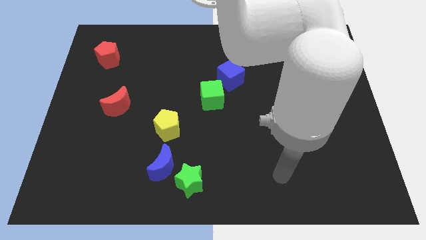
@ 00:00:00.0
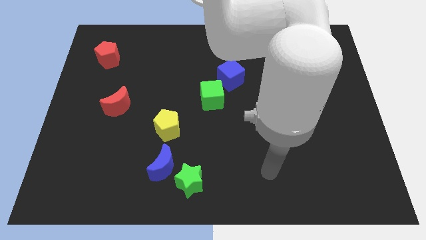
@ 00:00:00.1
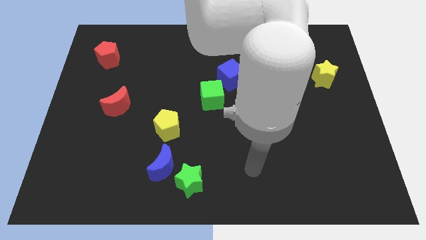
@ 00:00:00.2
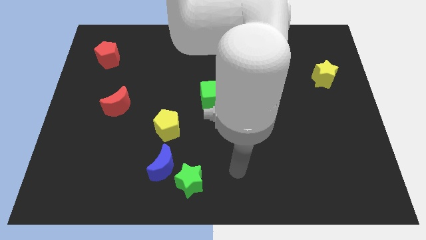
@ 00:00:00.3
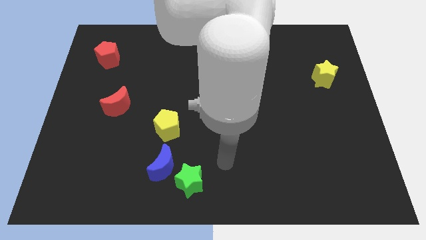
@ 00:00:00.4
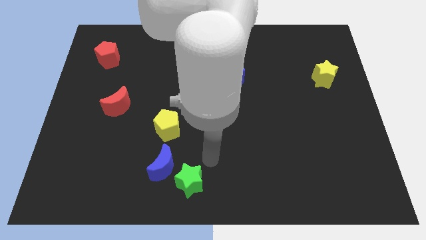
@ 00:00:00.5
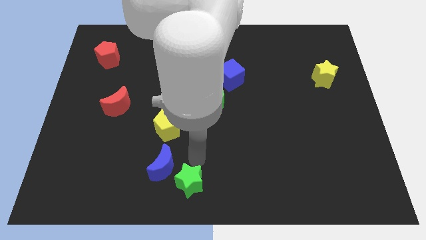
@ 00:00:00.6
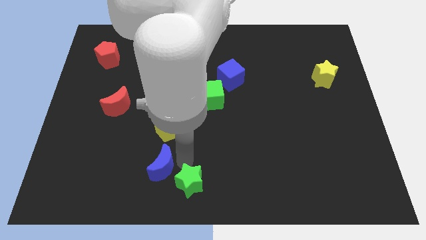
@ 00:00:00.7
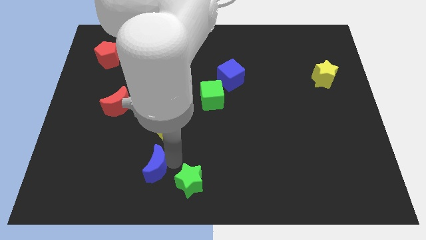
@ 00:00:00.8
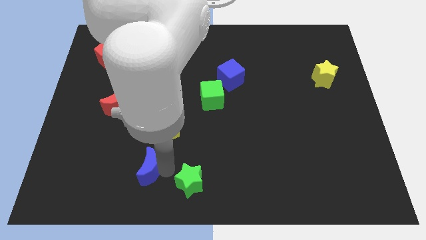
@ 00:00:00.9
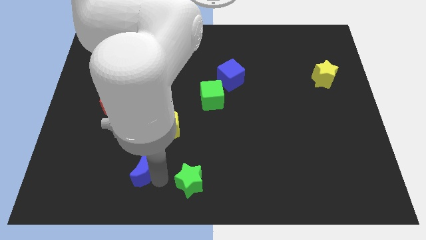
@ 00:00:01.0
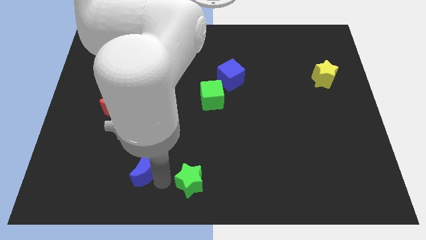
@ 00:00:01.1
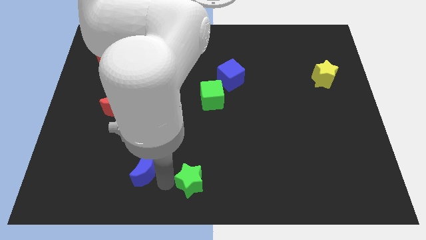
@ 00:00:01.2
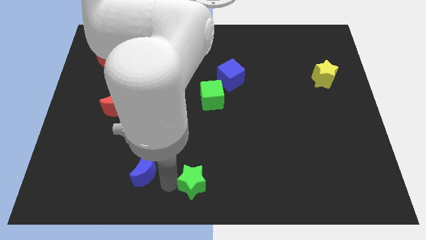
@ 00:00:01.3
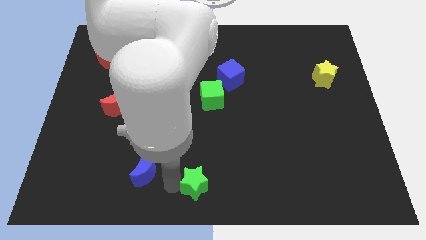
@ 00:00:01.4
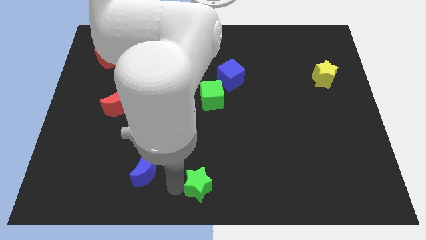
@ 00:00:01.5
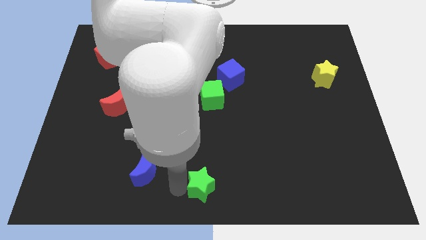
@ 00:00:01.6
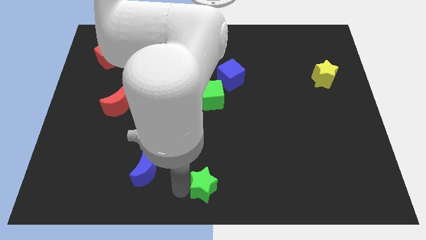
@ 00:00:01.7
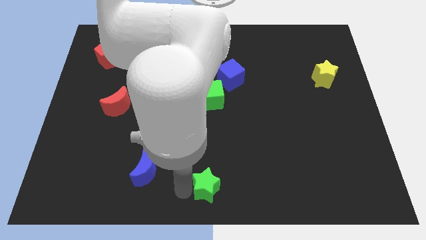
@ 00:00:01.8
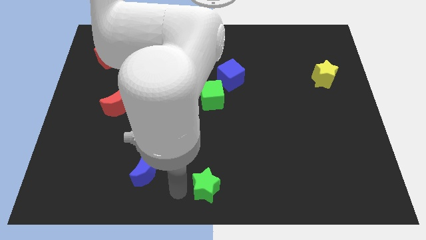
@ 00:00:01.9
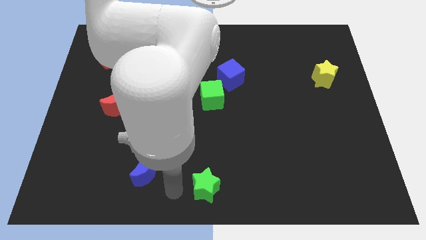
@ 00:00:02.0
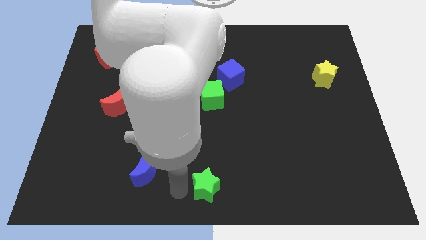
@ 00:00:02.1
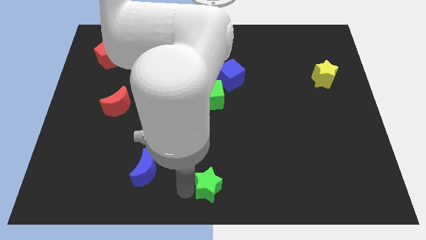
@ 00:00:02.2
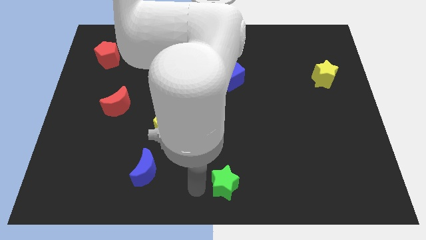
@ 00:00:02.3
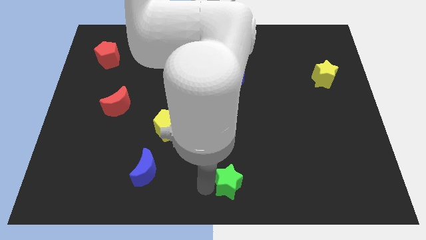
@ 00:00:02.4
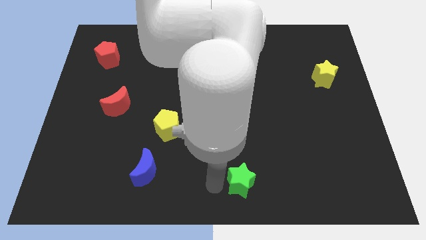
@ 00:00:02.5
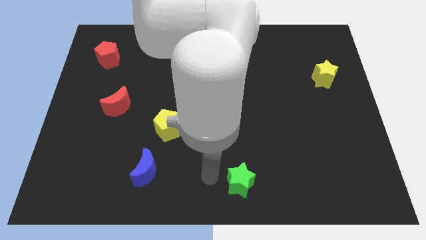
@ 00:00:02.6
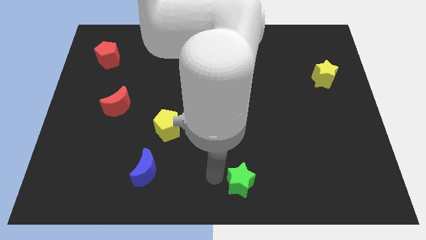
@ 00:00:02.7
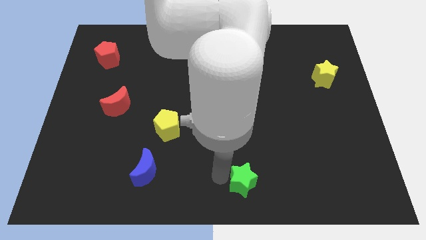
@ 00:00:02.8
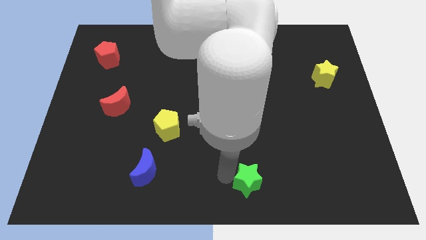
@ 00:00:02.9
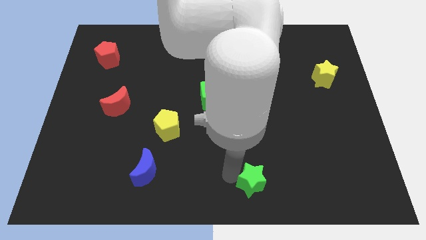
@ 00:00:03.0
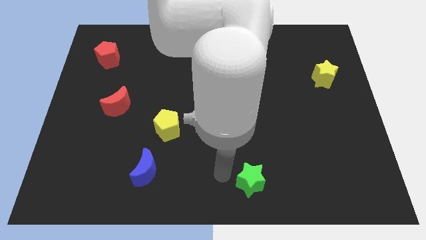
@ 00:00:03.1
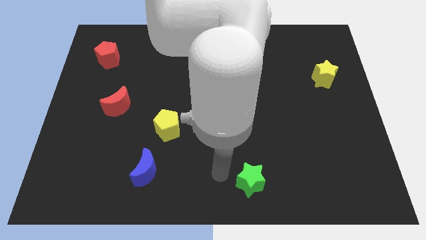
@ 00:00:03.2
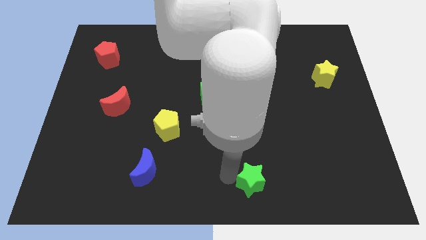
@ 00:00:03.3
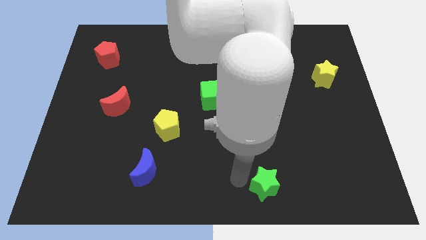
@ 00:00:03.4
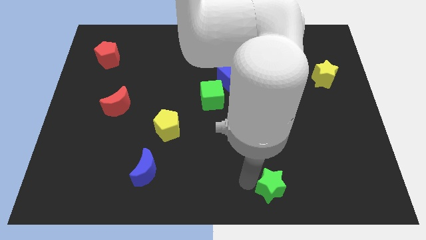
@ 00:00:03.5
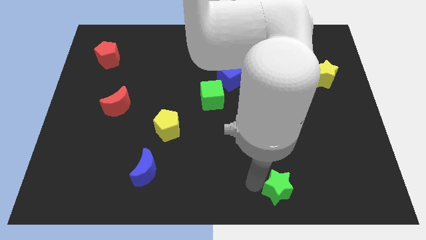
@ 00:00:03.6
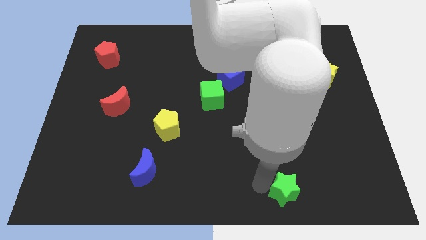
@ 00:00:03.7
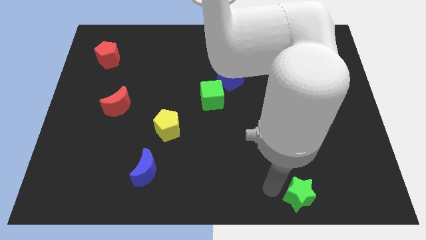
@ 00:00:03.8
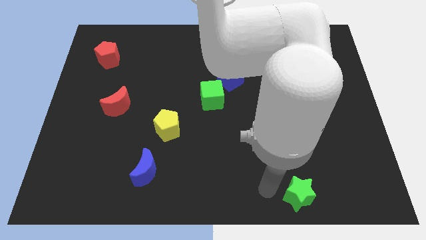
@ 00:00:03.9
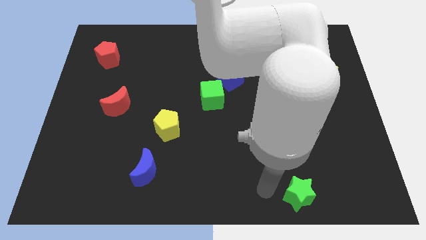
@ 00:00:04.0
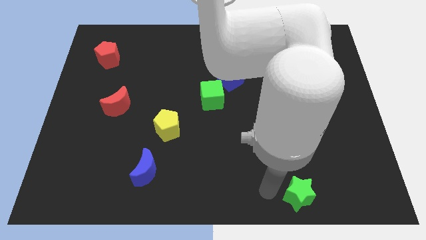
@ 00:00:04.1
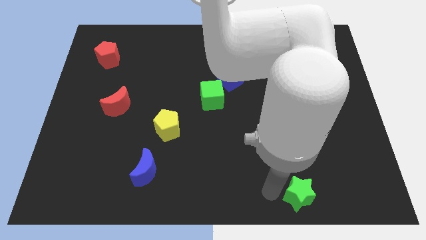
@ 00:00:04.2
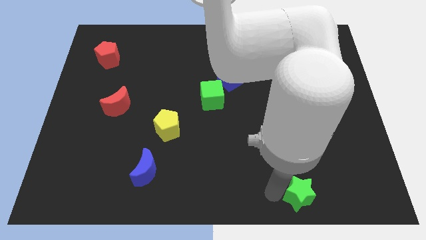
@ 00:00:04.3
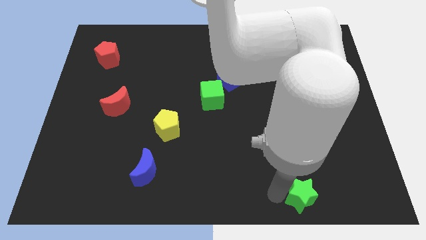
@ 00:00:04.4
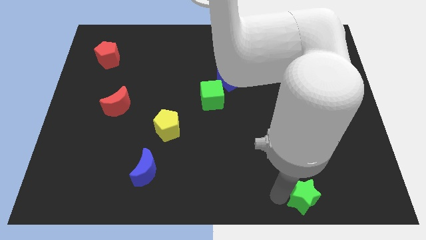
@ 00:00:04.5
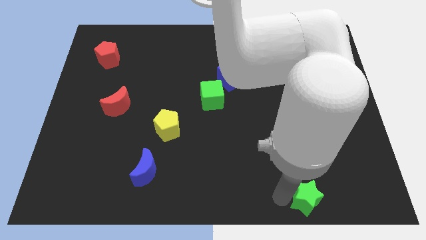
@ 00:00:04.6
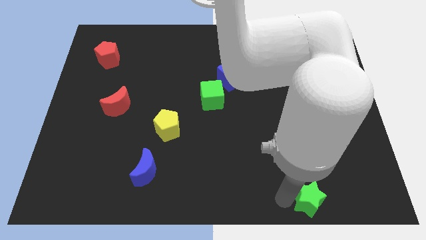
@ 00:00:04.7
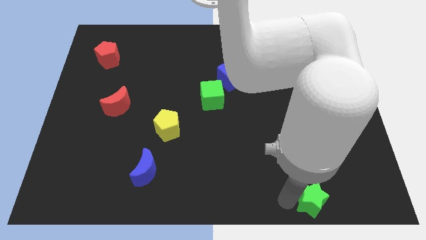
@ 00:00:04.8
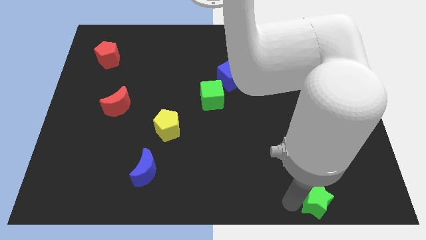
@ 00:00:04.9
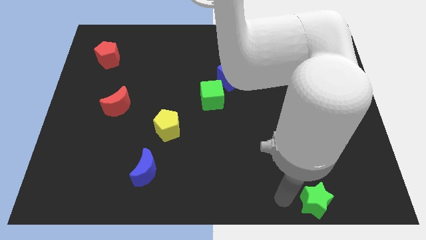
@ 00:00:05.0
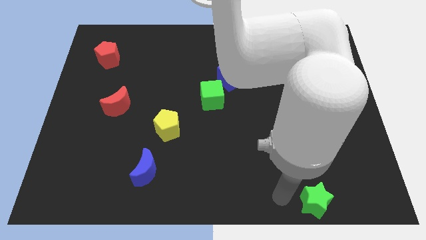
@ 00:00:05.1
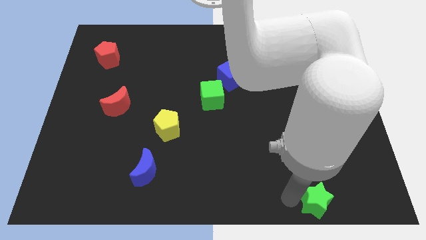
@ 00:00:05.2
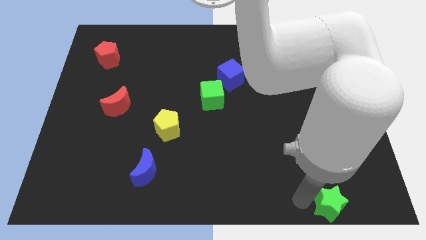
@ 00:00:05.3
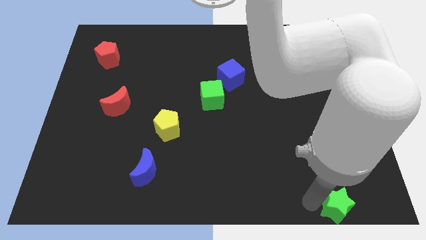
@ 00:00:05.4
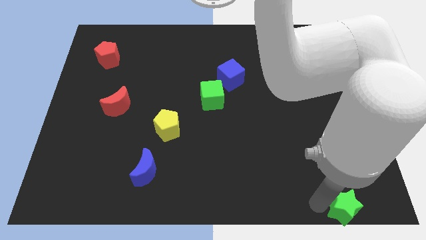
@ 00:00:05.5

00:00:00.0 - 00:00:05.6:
move the green star to the lower right corner

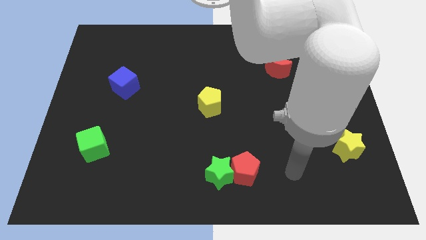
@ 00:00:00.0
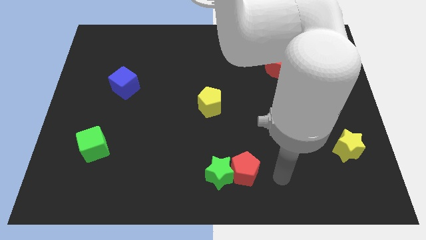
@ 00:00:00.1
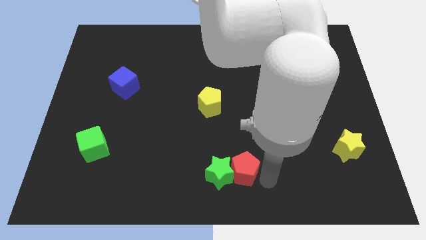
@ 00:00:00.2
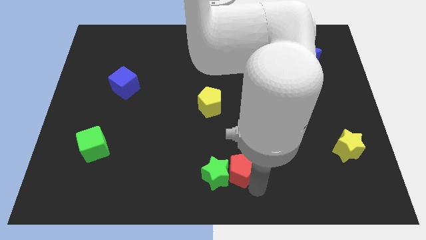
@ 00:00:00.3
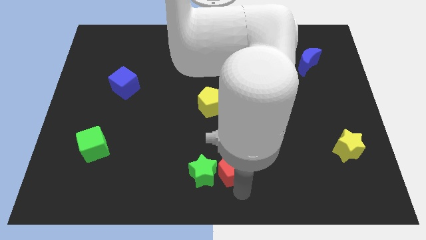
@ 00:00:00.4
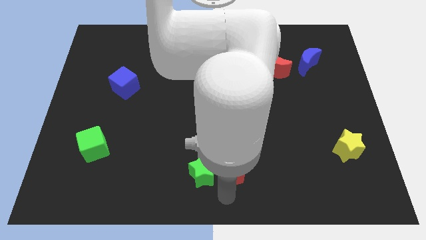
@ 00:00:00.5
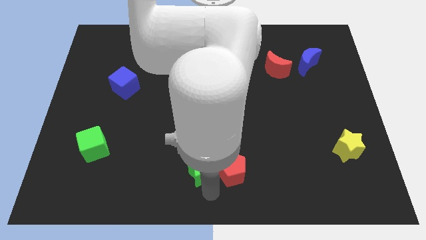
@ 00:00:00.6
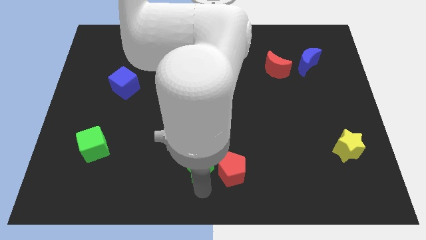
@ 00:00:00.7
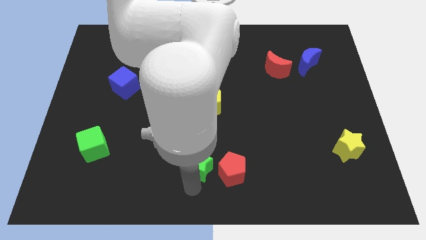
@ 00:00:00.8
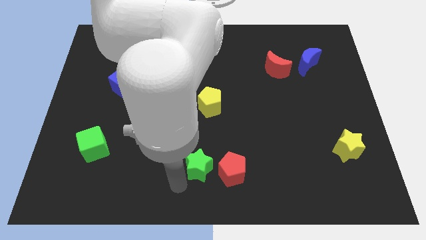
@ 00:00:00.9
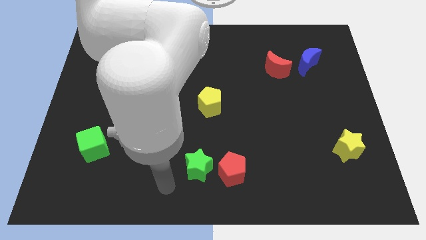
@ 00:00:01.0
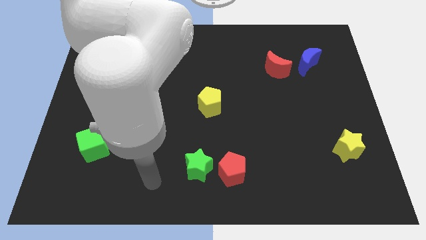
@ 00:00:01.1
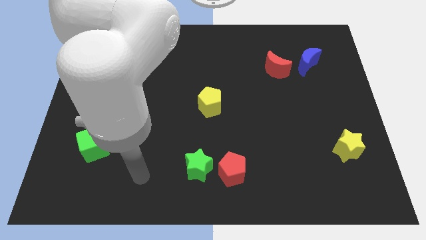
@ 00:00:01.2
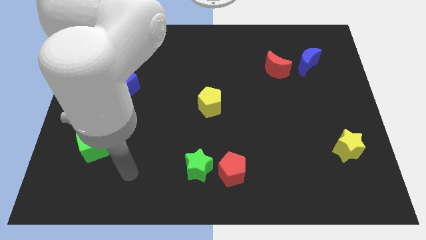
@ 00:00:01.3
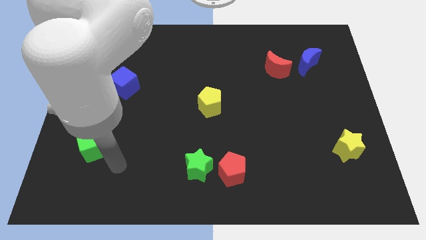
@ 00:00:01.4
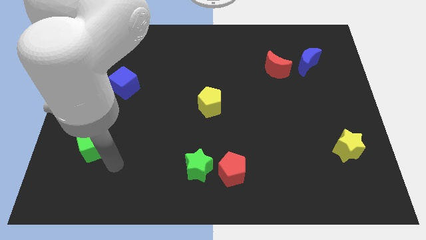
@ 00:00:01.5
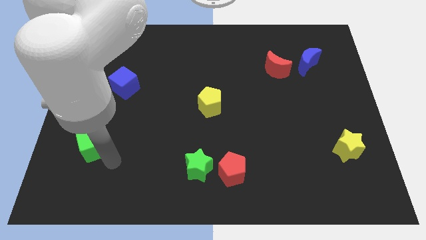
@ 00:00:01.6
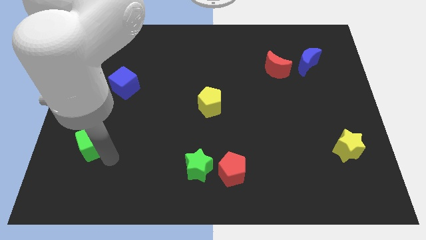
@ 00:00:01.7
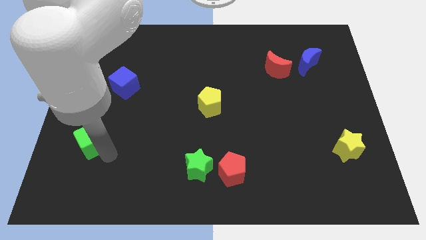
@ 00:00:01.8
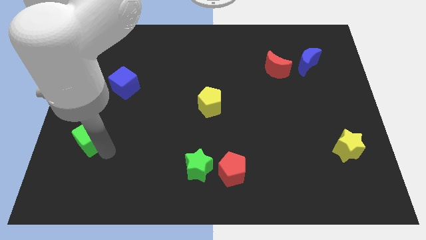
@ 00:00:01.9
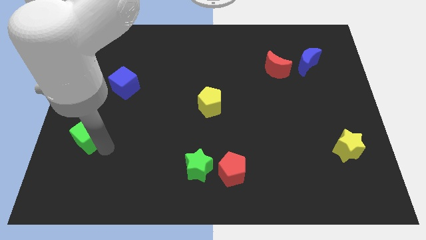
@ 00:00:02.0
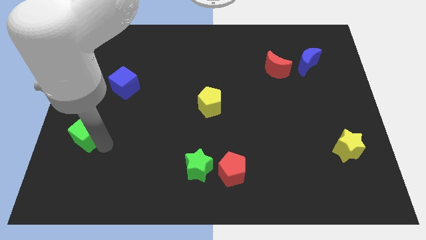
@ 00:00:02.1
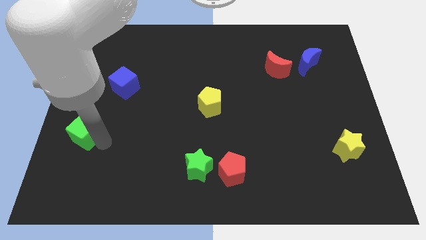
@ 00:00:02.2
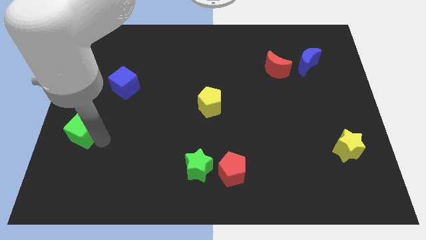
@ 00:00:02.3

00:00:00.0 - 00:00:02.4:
put the green cube to the left side of the board
